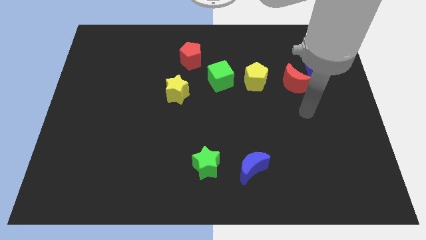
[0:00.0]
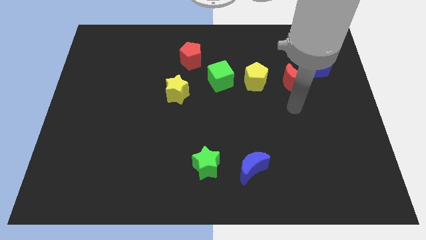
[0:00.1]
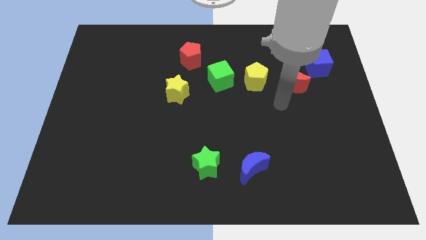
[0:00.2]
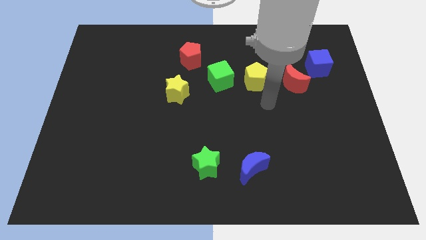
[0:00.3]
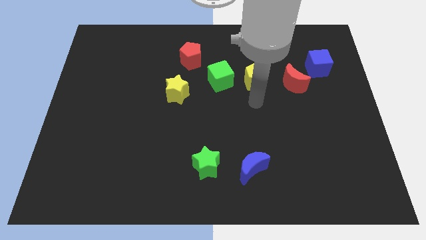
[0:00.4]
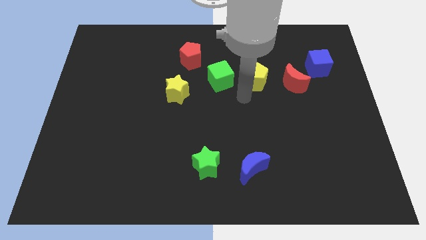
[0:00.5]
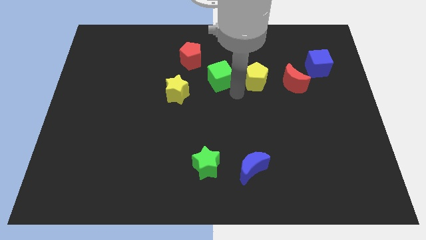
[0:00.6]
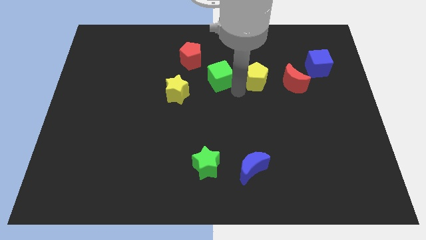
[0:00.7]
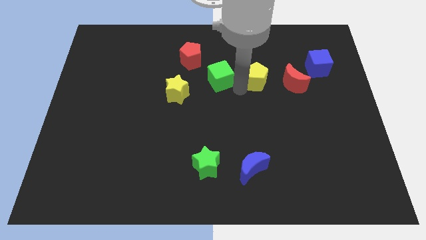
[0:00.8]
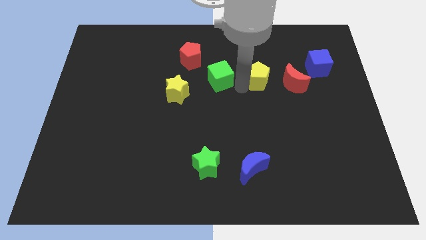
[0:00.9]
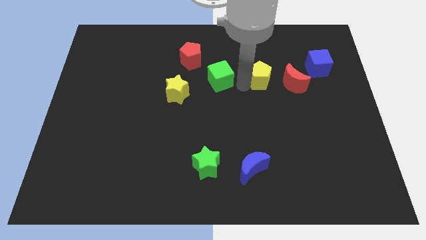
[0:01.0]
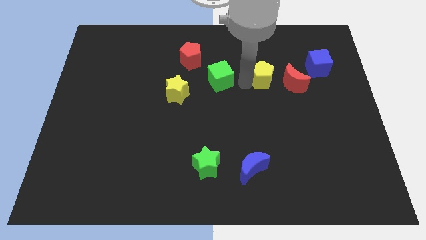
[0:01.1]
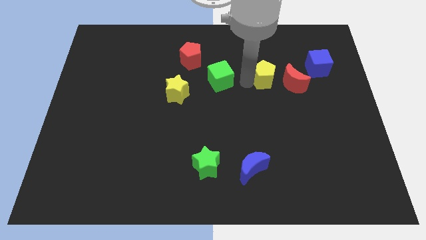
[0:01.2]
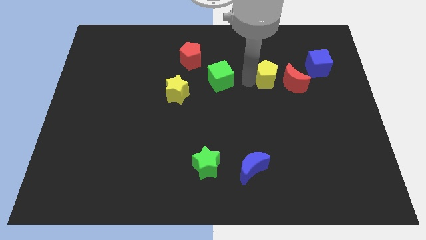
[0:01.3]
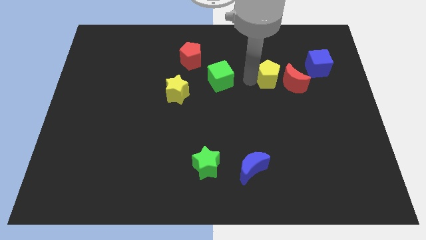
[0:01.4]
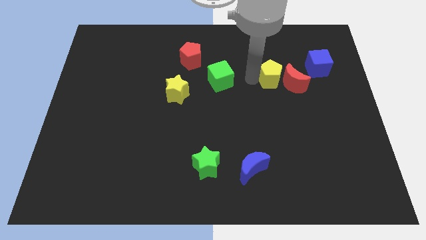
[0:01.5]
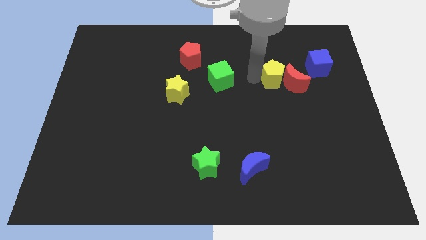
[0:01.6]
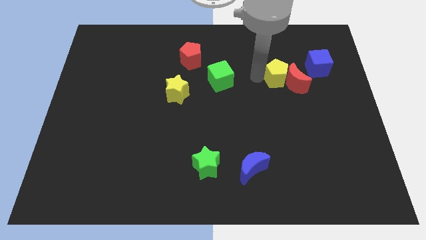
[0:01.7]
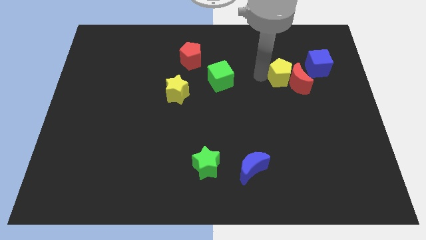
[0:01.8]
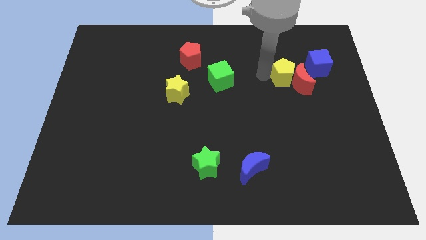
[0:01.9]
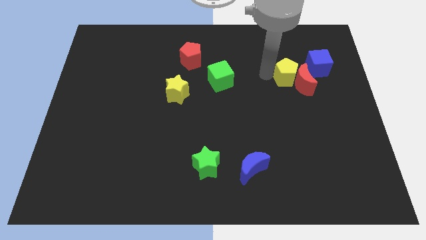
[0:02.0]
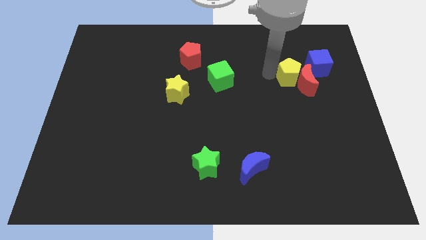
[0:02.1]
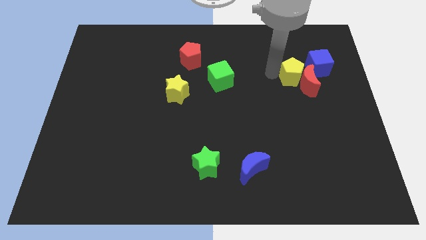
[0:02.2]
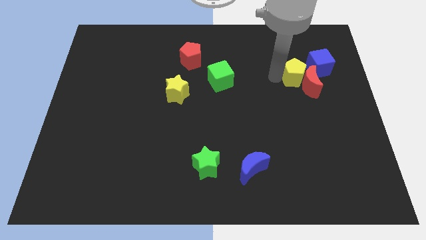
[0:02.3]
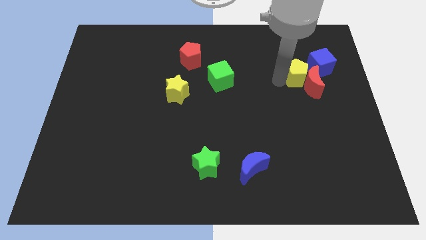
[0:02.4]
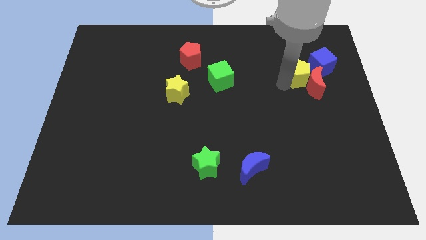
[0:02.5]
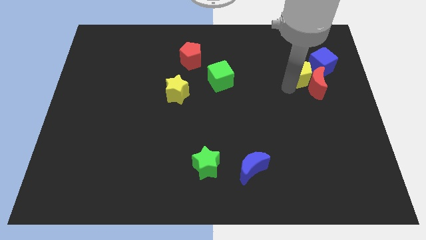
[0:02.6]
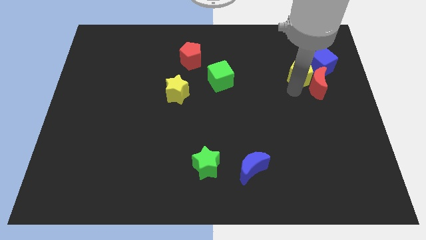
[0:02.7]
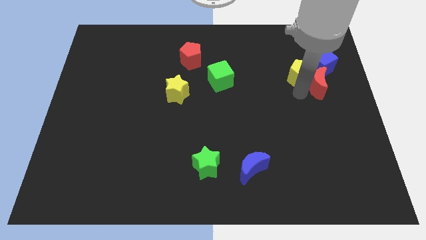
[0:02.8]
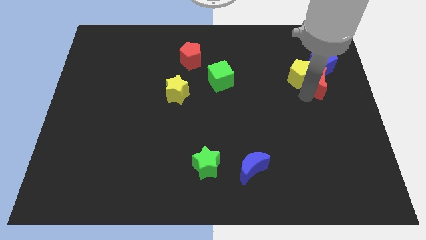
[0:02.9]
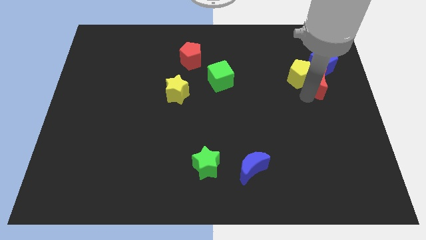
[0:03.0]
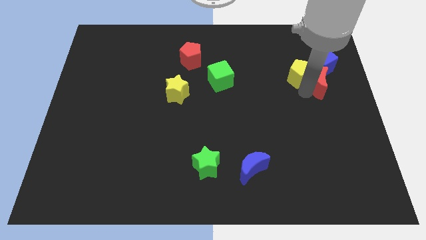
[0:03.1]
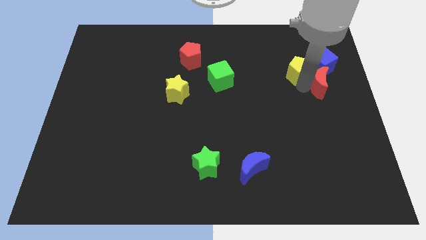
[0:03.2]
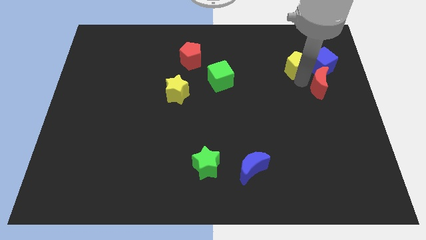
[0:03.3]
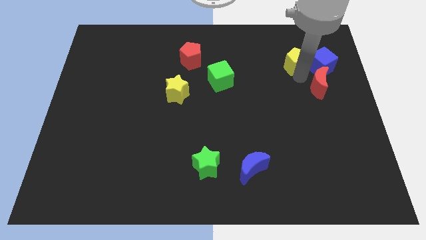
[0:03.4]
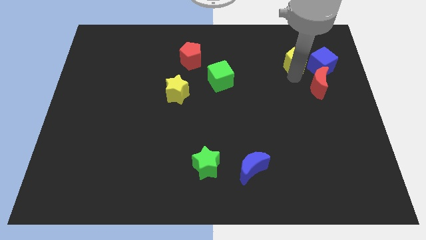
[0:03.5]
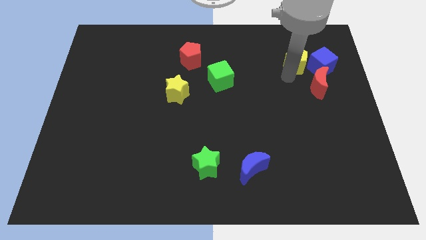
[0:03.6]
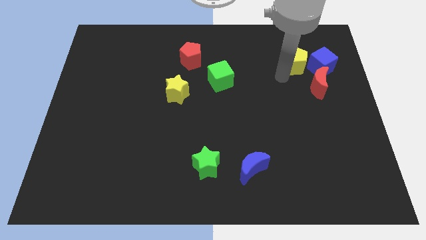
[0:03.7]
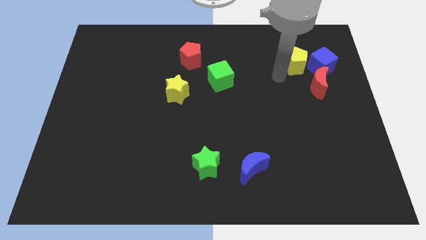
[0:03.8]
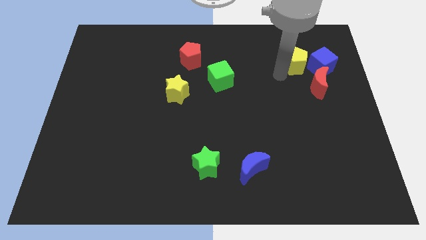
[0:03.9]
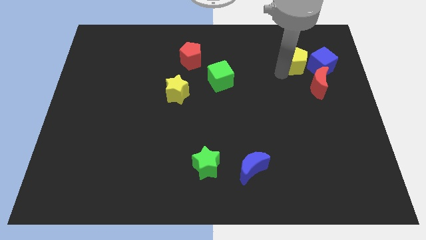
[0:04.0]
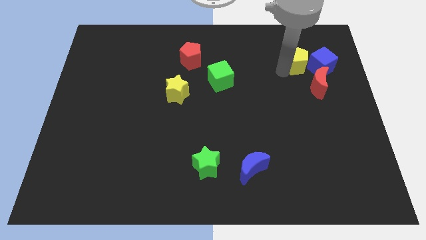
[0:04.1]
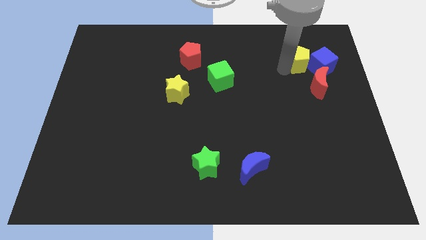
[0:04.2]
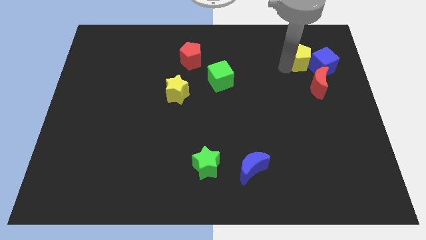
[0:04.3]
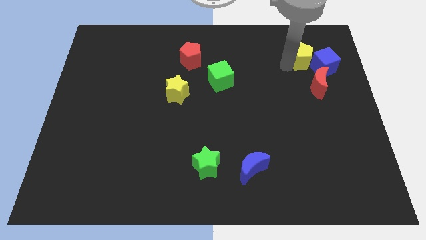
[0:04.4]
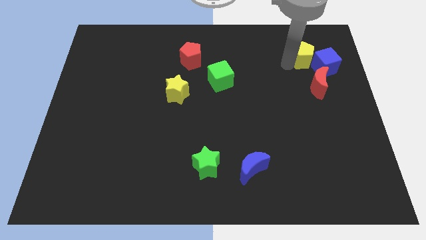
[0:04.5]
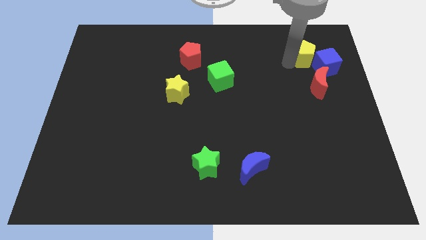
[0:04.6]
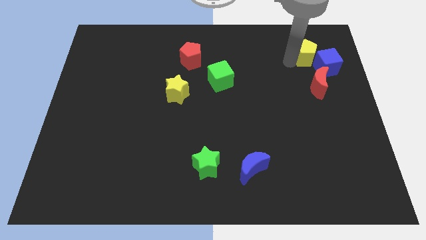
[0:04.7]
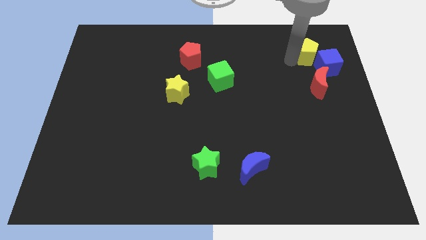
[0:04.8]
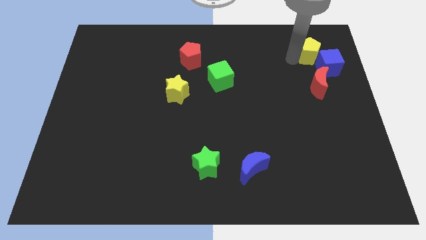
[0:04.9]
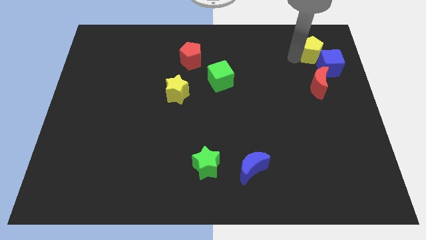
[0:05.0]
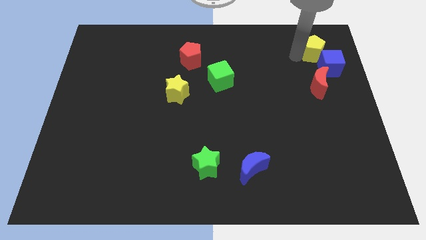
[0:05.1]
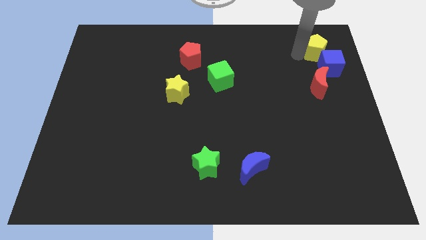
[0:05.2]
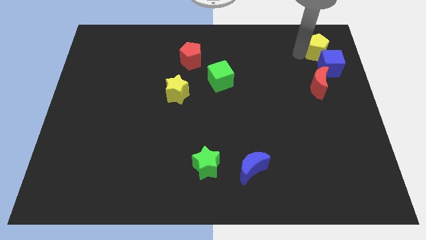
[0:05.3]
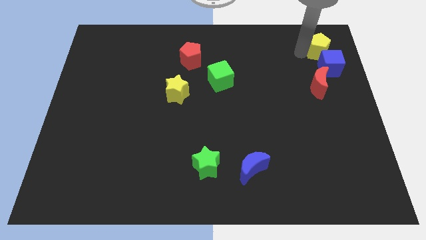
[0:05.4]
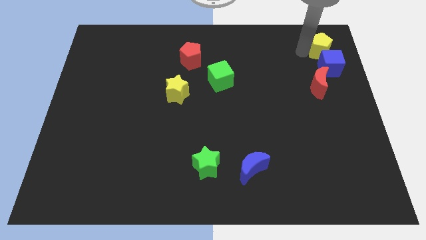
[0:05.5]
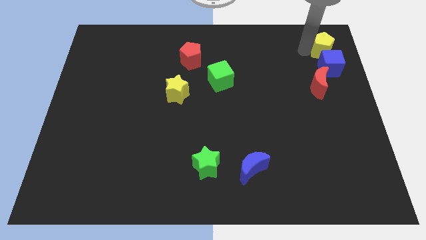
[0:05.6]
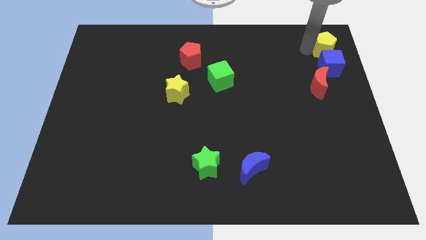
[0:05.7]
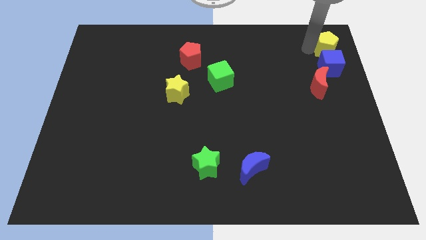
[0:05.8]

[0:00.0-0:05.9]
slide the yellow pentagon to the top right of the board

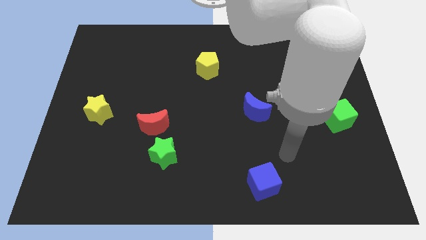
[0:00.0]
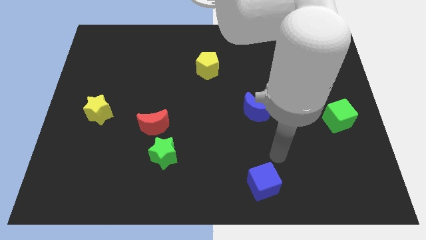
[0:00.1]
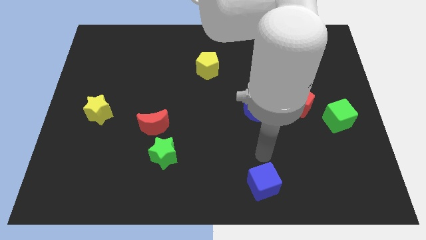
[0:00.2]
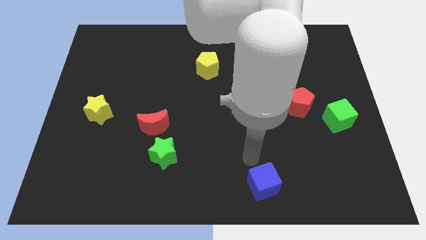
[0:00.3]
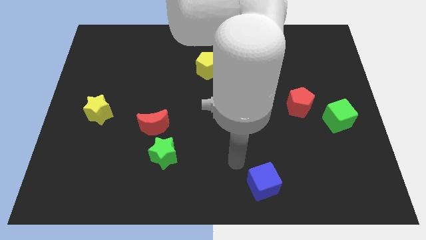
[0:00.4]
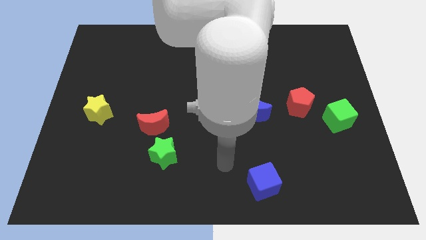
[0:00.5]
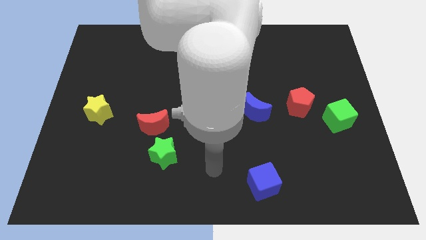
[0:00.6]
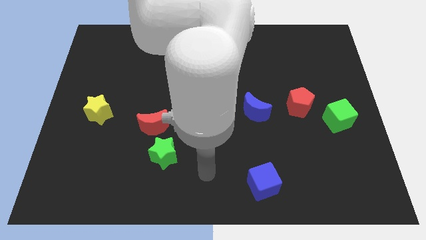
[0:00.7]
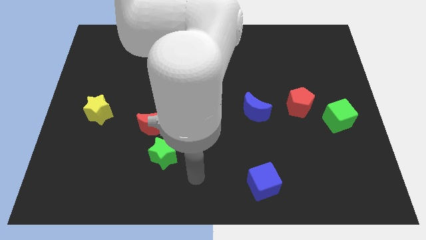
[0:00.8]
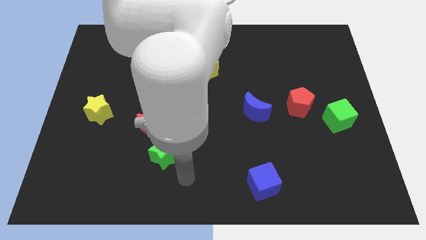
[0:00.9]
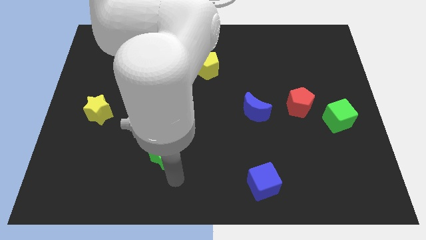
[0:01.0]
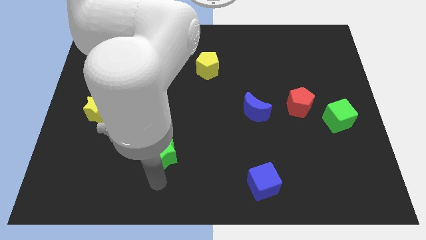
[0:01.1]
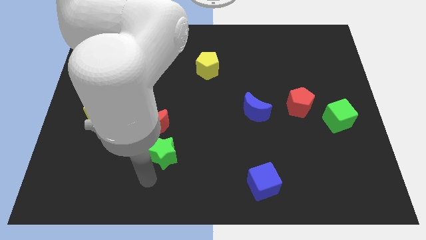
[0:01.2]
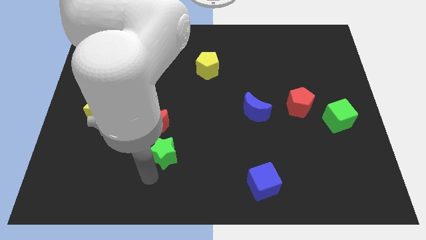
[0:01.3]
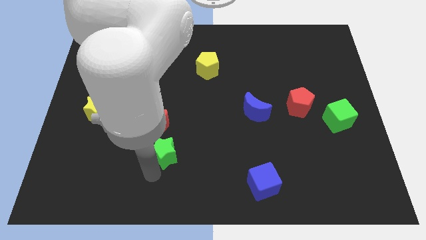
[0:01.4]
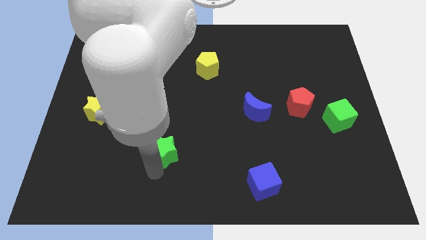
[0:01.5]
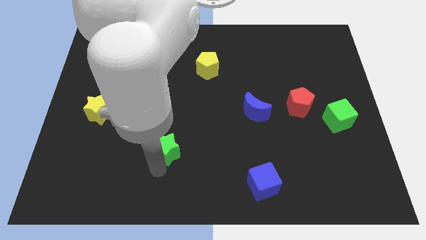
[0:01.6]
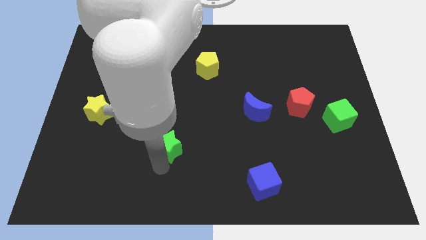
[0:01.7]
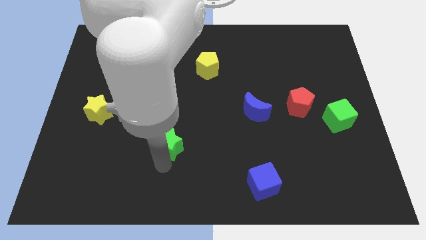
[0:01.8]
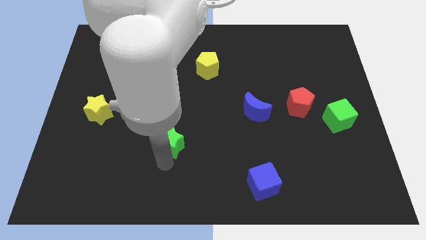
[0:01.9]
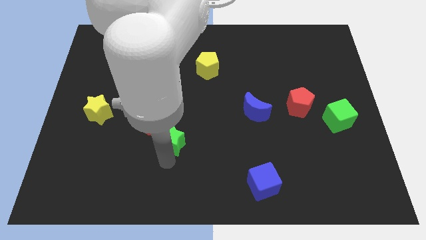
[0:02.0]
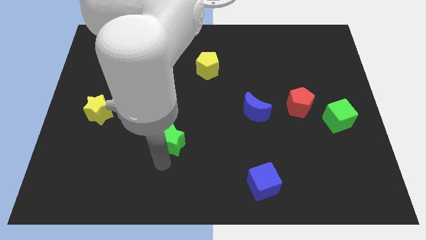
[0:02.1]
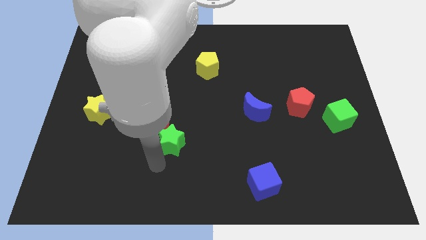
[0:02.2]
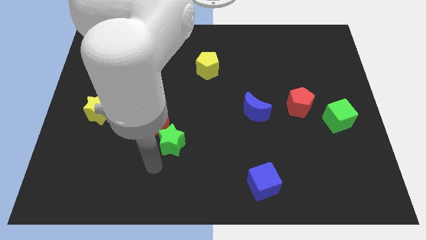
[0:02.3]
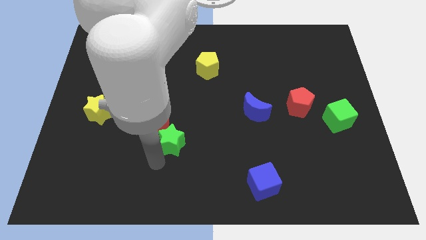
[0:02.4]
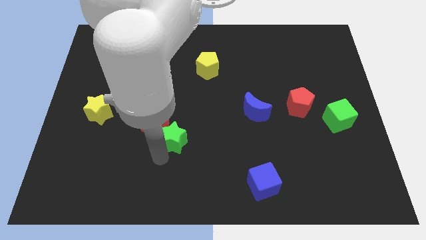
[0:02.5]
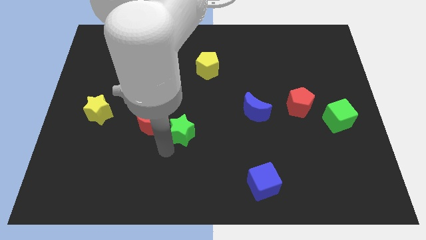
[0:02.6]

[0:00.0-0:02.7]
move the green star to the center of the board
